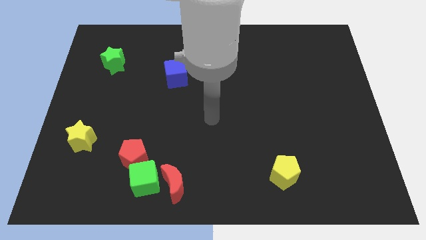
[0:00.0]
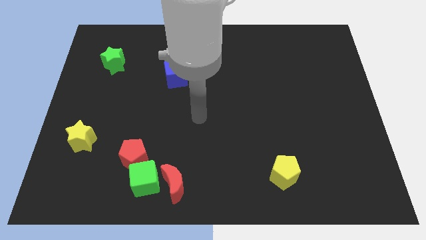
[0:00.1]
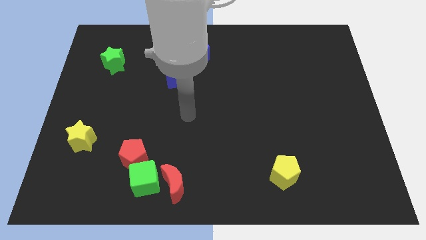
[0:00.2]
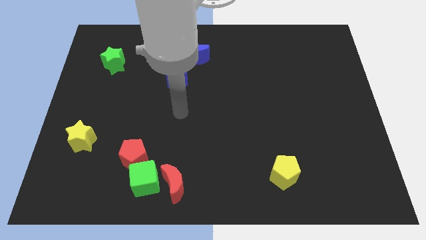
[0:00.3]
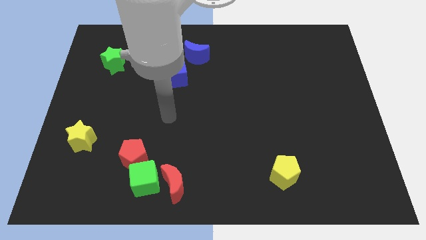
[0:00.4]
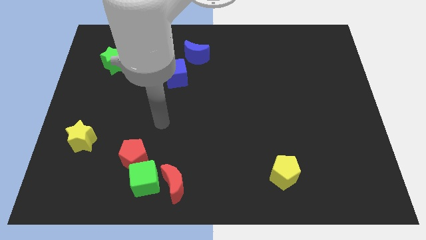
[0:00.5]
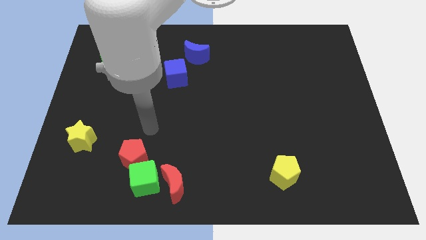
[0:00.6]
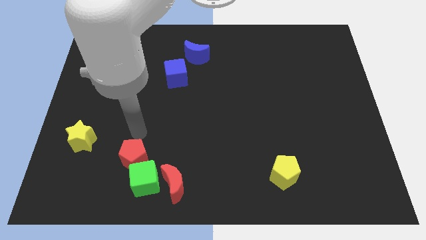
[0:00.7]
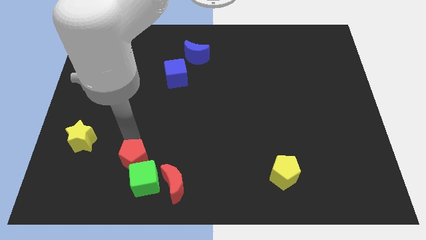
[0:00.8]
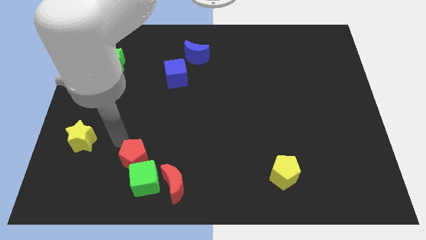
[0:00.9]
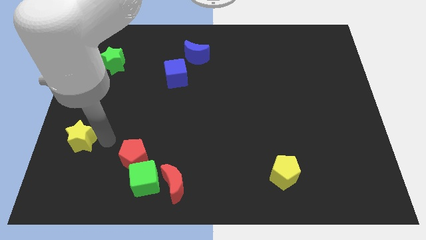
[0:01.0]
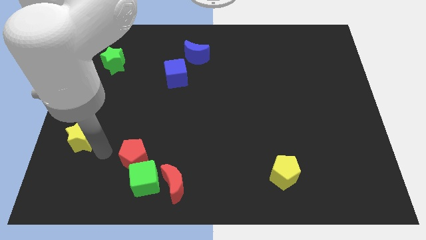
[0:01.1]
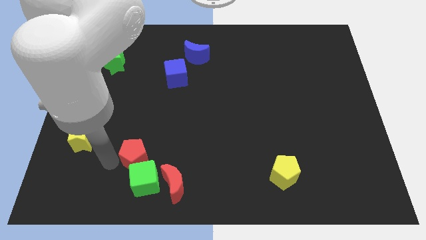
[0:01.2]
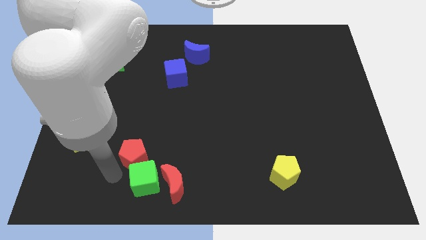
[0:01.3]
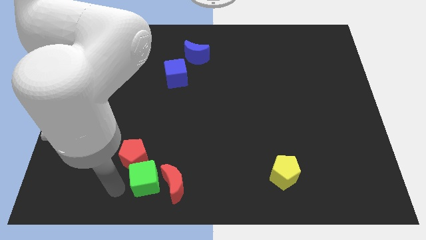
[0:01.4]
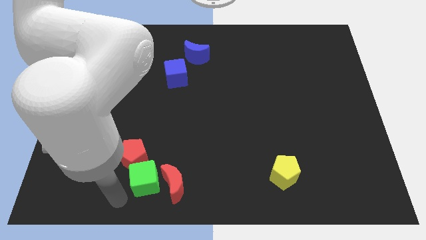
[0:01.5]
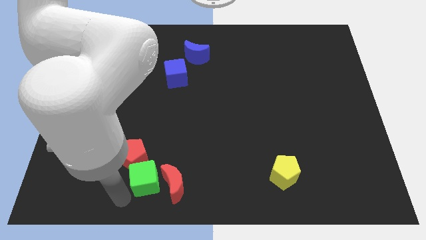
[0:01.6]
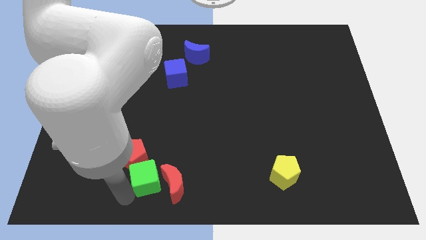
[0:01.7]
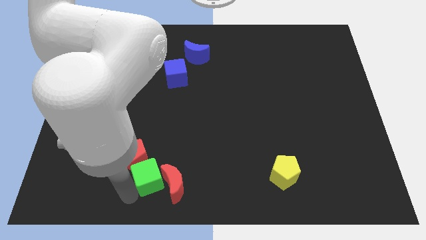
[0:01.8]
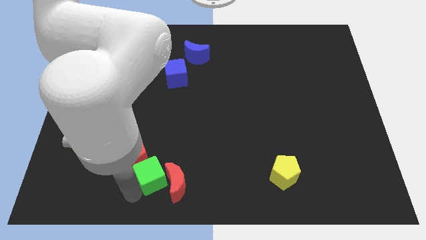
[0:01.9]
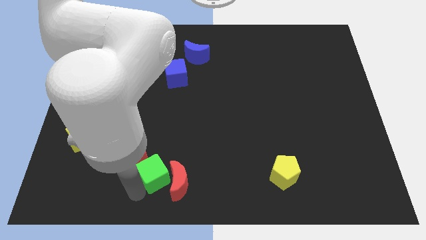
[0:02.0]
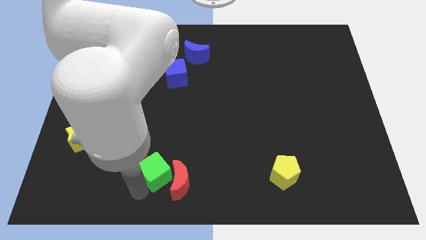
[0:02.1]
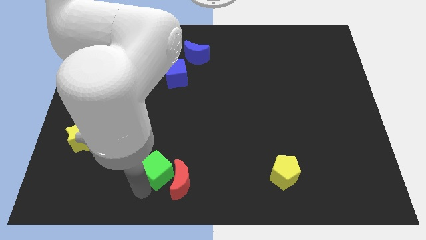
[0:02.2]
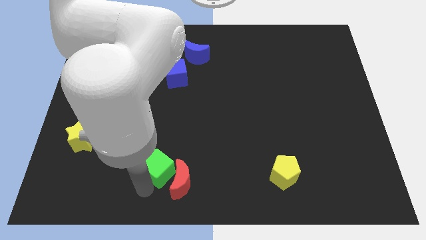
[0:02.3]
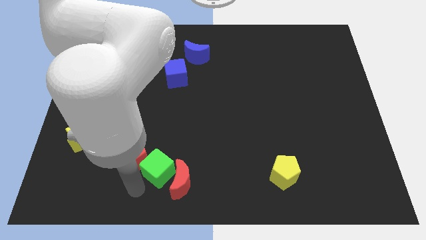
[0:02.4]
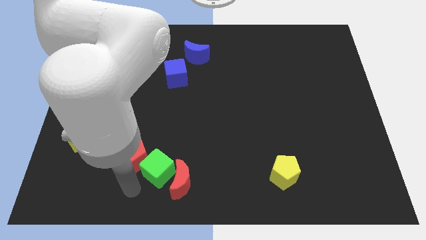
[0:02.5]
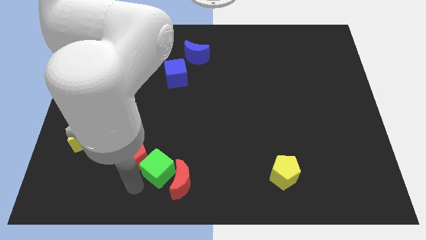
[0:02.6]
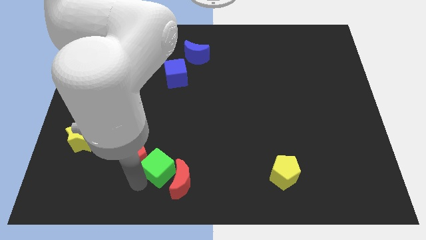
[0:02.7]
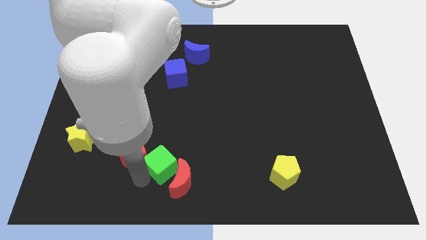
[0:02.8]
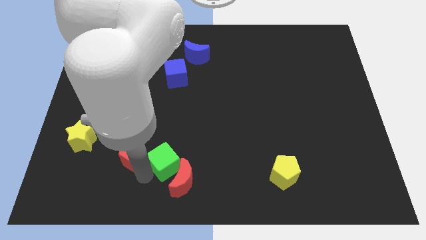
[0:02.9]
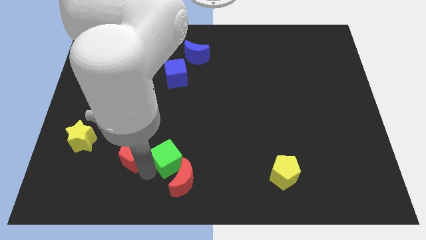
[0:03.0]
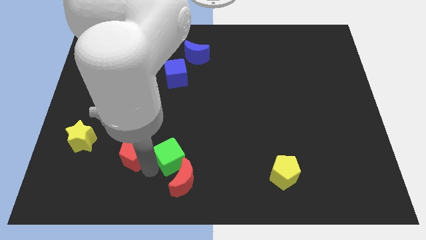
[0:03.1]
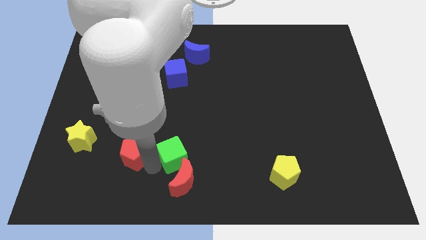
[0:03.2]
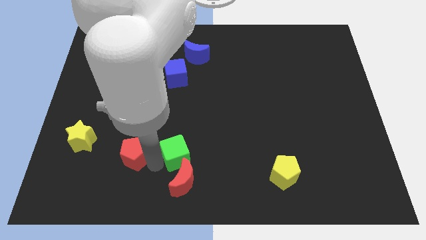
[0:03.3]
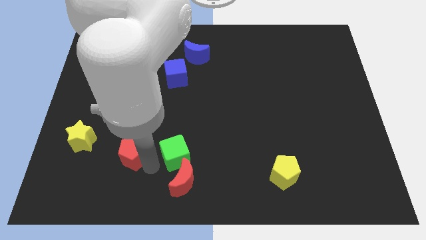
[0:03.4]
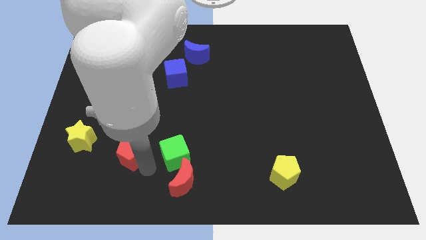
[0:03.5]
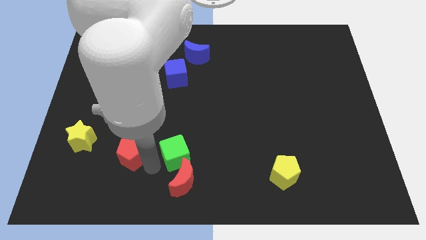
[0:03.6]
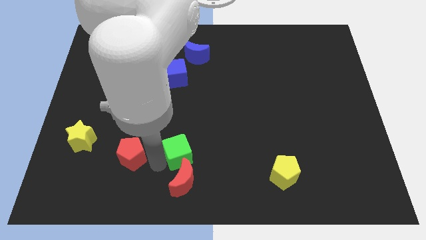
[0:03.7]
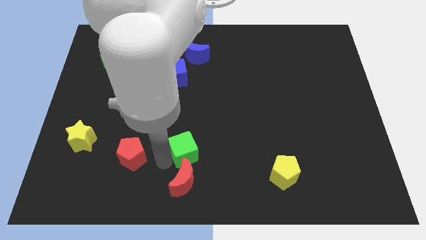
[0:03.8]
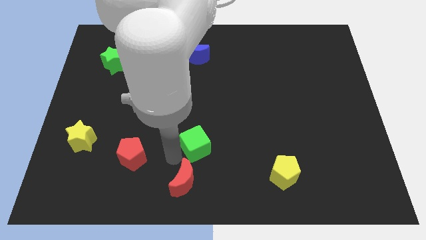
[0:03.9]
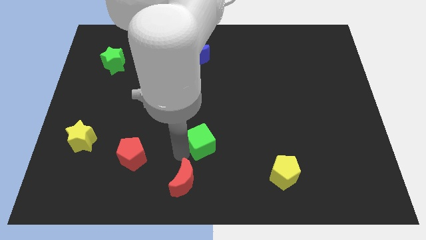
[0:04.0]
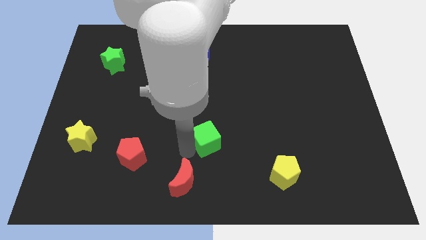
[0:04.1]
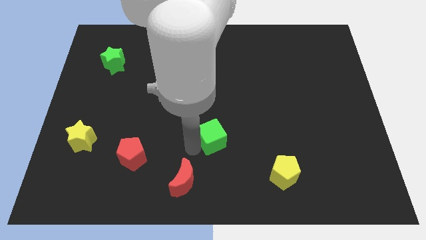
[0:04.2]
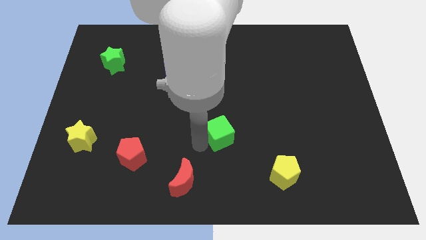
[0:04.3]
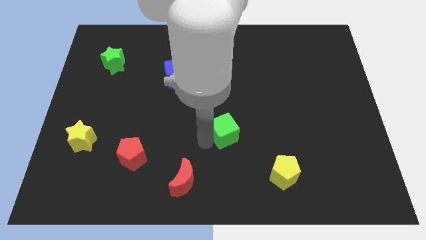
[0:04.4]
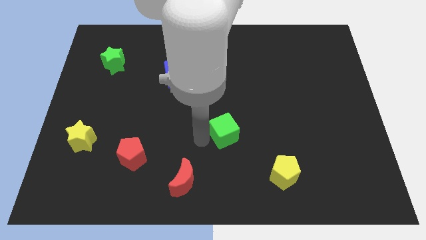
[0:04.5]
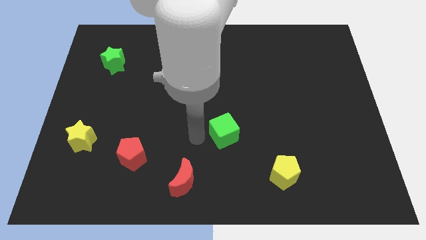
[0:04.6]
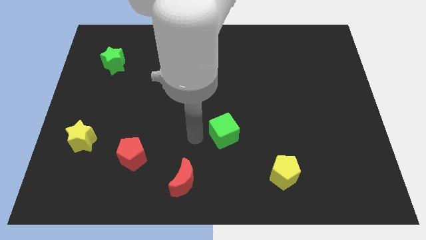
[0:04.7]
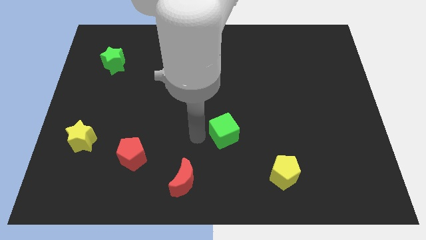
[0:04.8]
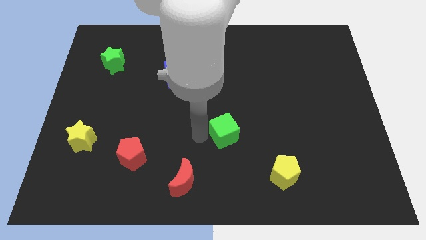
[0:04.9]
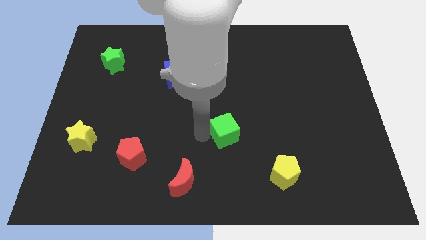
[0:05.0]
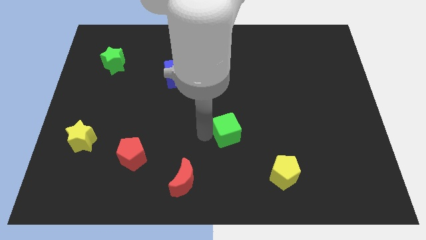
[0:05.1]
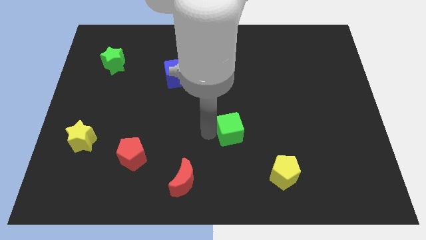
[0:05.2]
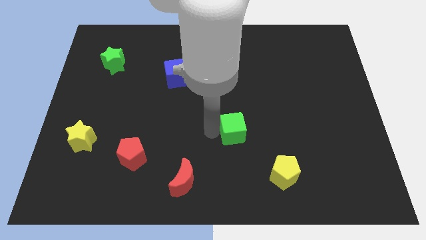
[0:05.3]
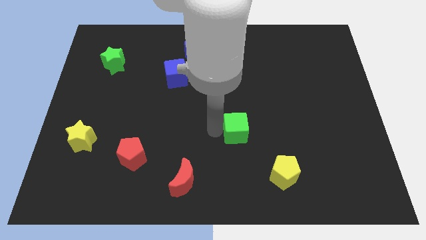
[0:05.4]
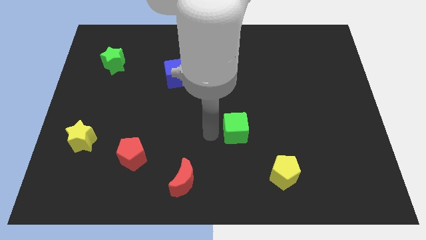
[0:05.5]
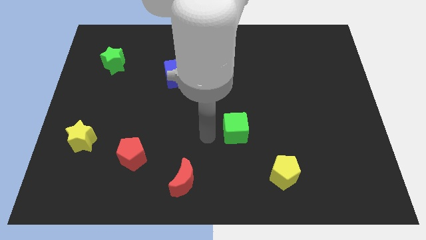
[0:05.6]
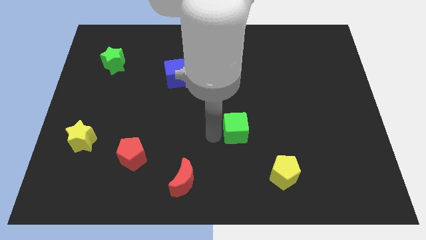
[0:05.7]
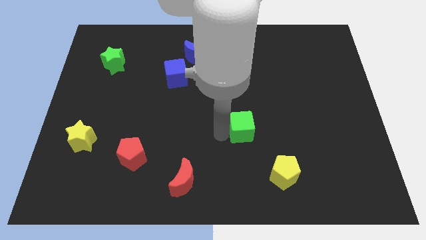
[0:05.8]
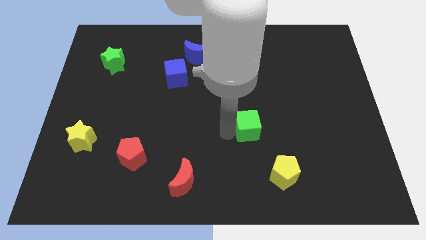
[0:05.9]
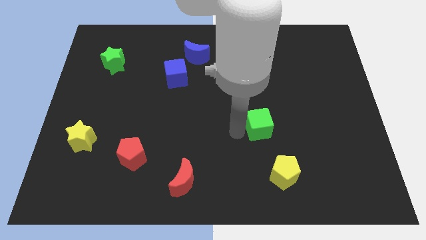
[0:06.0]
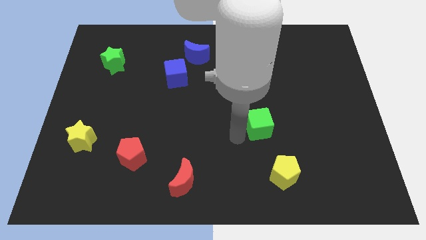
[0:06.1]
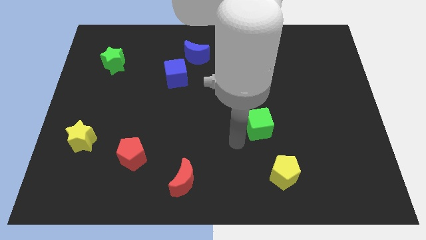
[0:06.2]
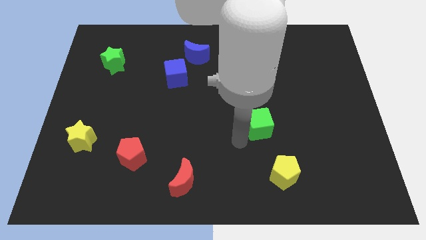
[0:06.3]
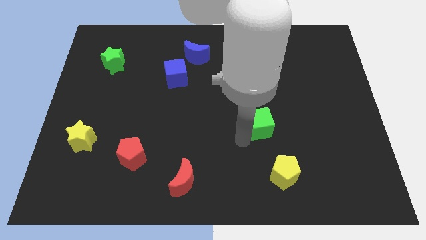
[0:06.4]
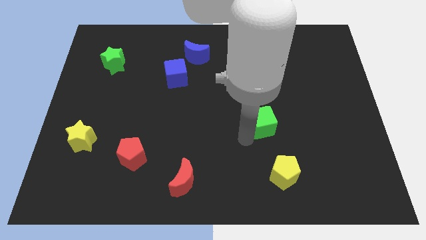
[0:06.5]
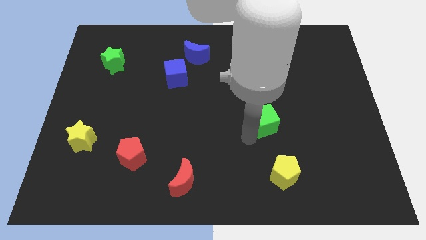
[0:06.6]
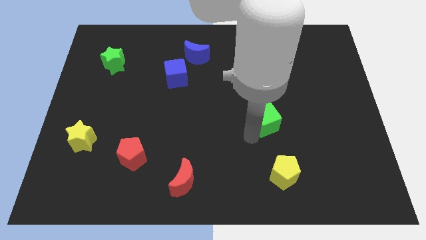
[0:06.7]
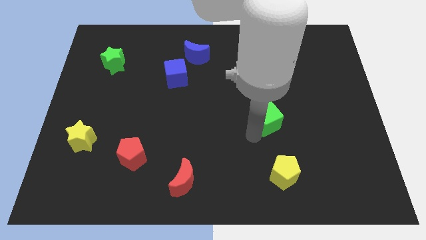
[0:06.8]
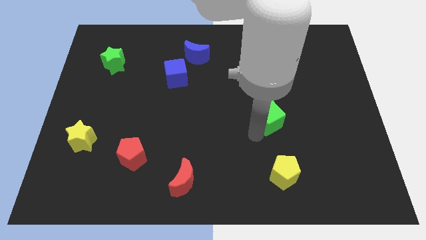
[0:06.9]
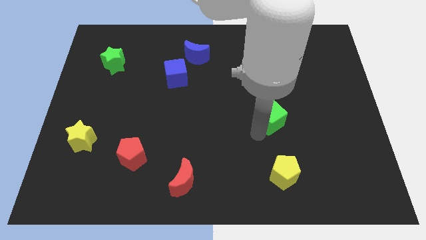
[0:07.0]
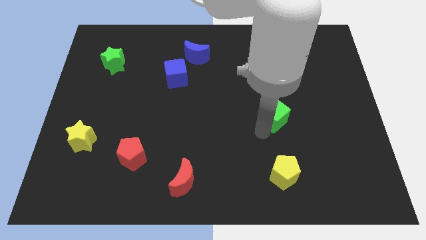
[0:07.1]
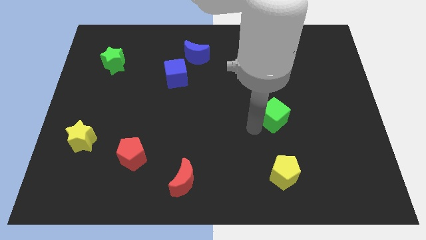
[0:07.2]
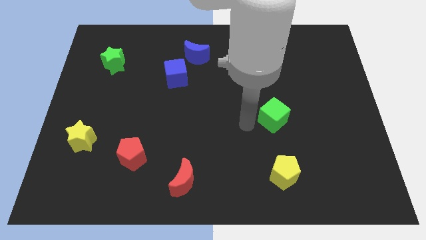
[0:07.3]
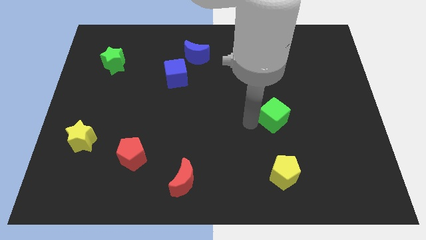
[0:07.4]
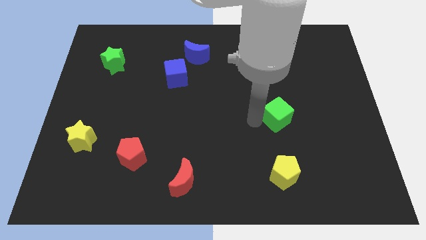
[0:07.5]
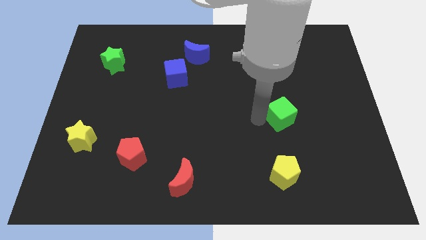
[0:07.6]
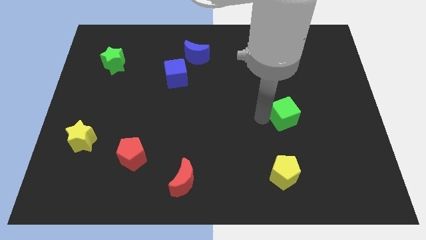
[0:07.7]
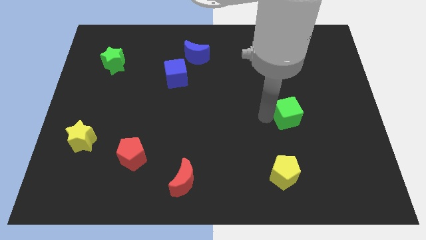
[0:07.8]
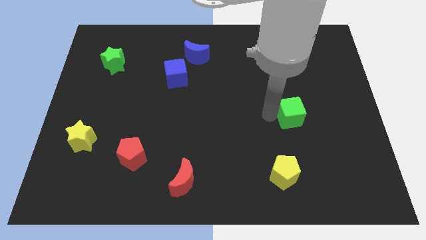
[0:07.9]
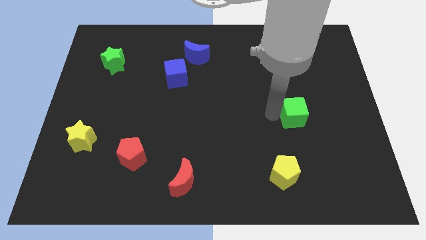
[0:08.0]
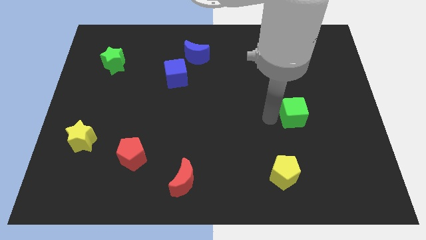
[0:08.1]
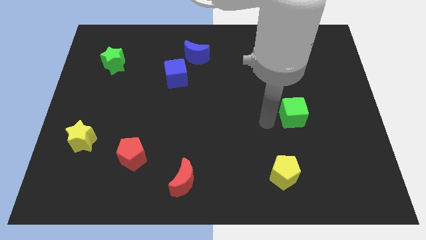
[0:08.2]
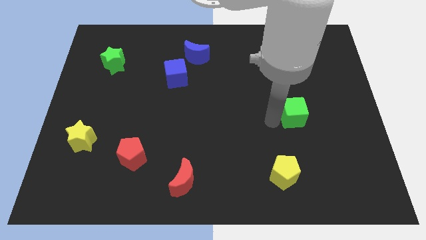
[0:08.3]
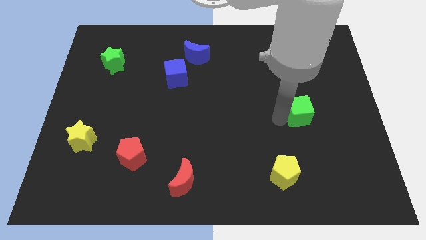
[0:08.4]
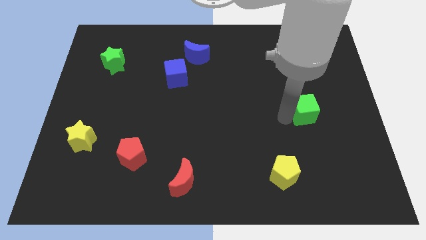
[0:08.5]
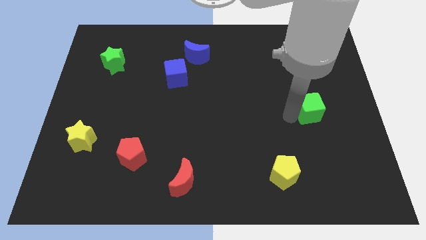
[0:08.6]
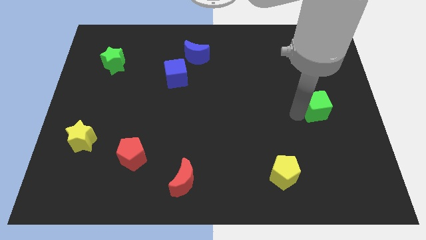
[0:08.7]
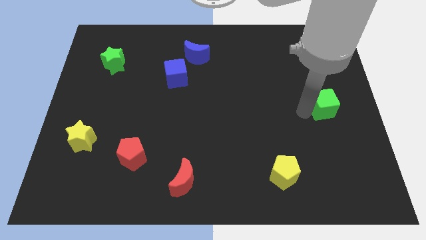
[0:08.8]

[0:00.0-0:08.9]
move the green cube to the right side
